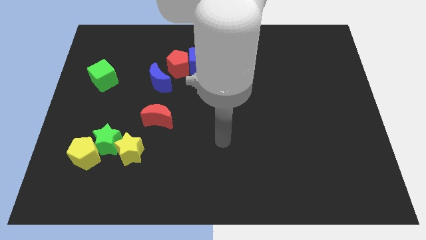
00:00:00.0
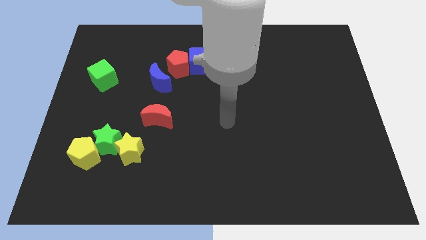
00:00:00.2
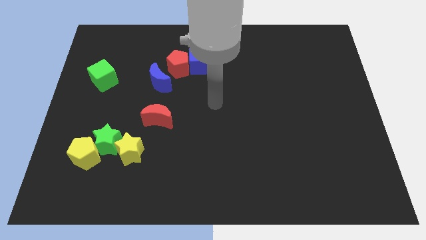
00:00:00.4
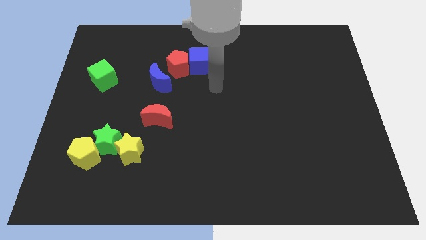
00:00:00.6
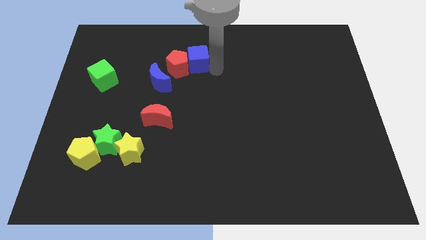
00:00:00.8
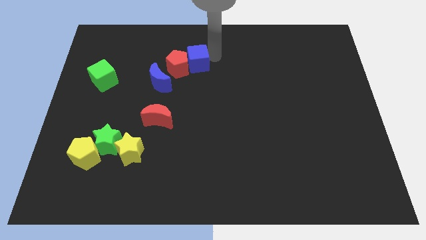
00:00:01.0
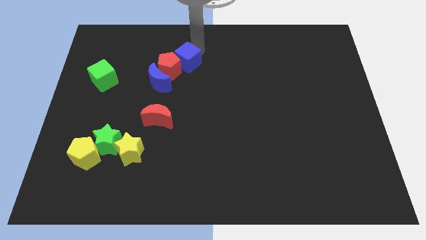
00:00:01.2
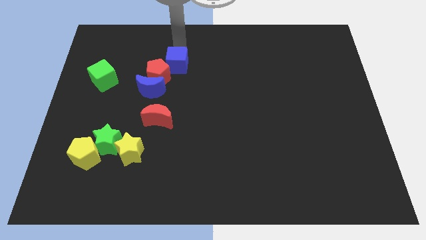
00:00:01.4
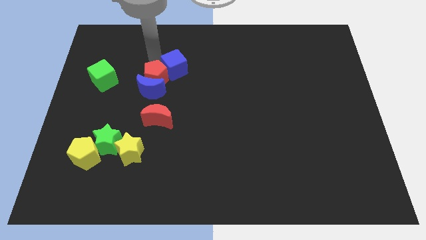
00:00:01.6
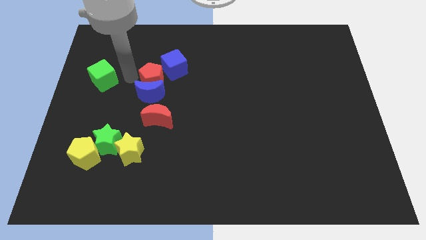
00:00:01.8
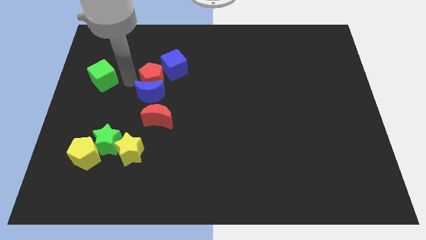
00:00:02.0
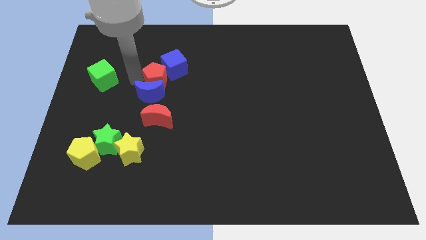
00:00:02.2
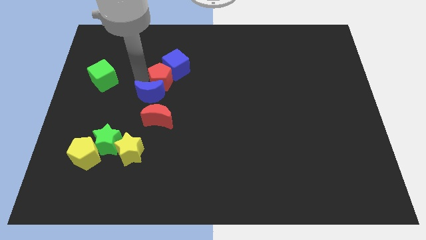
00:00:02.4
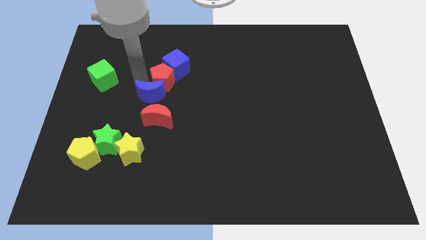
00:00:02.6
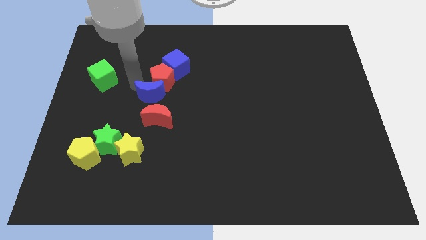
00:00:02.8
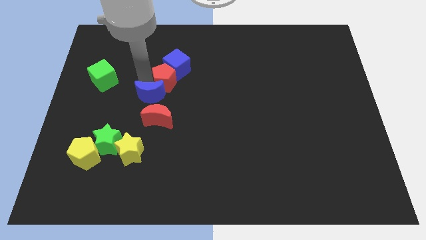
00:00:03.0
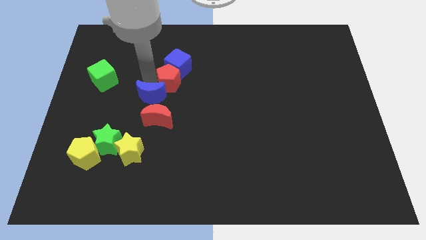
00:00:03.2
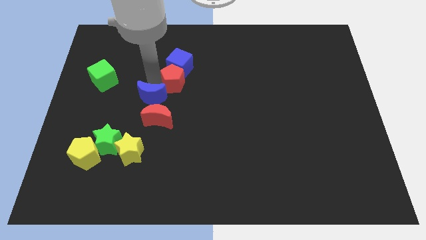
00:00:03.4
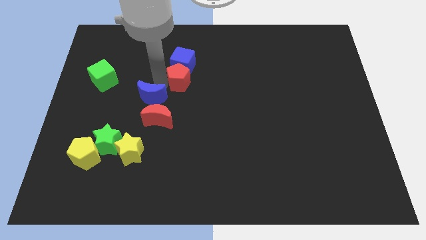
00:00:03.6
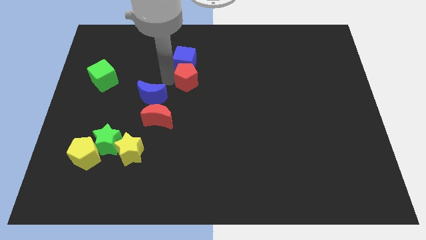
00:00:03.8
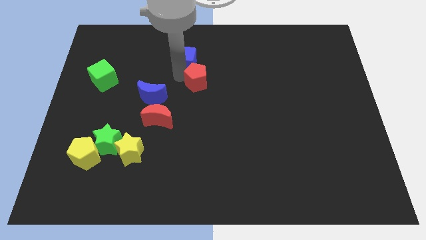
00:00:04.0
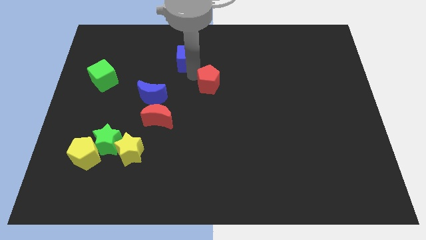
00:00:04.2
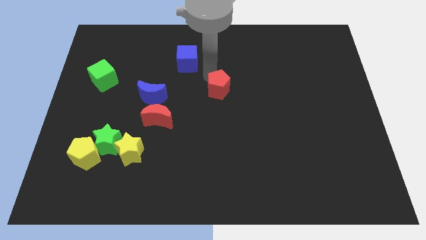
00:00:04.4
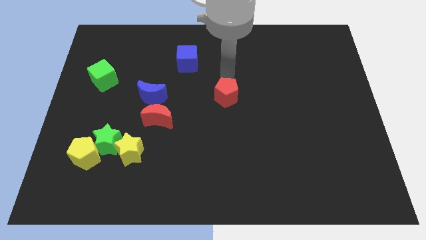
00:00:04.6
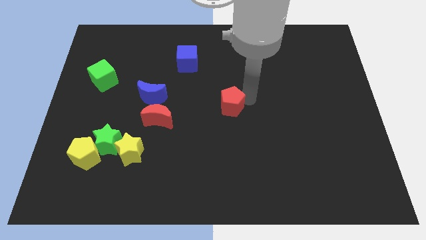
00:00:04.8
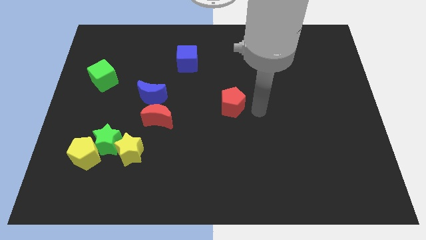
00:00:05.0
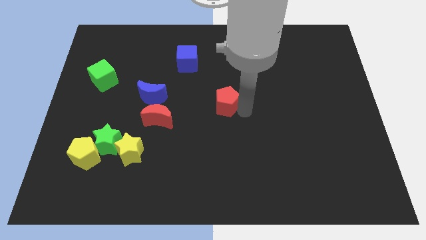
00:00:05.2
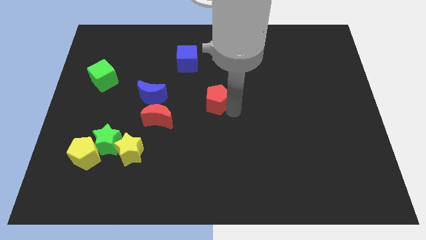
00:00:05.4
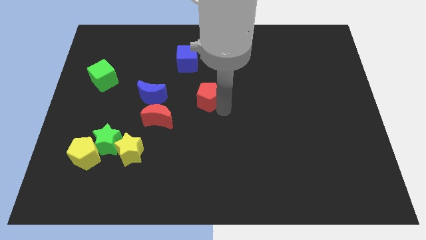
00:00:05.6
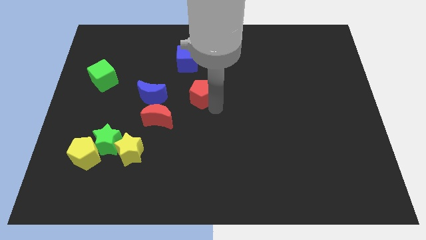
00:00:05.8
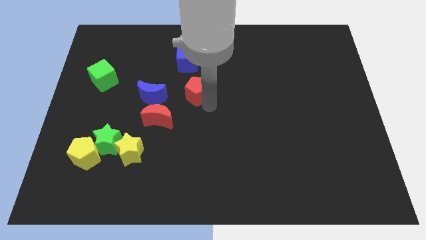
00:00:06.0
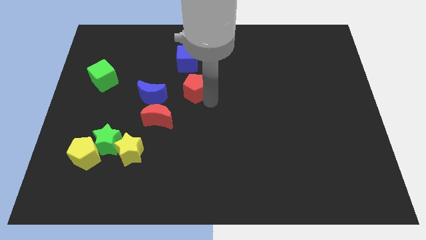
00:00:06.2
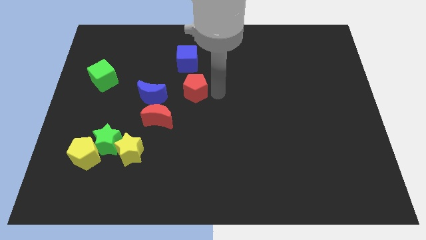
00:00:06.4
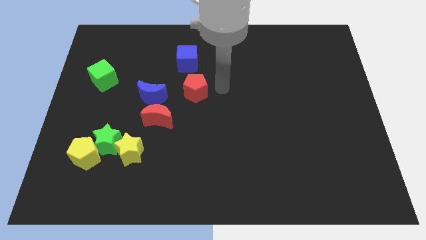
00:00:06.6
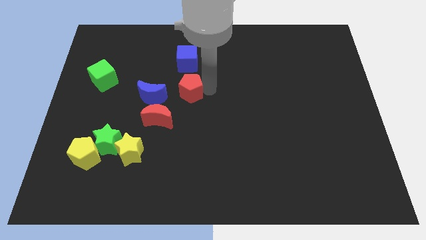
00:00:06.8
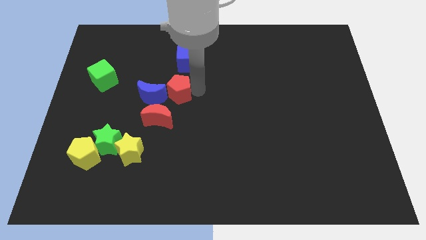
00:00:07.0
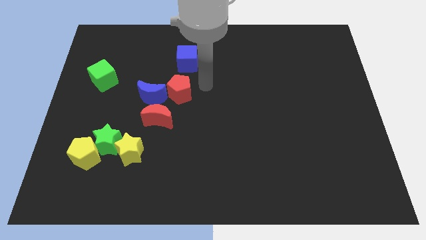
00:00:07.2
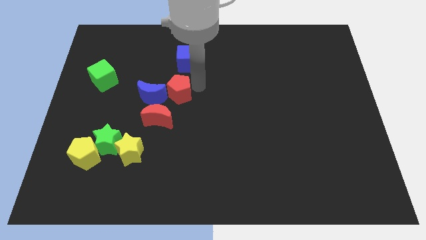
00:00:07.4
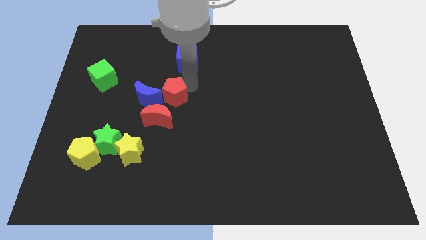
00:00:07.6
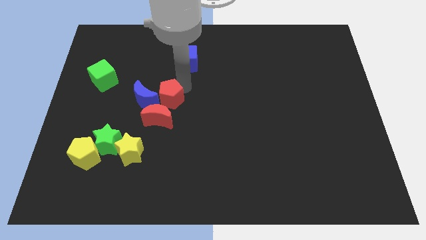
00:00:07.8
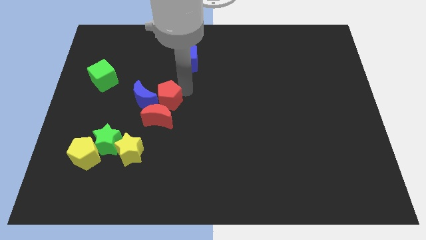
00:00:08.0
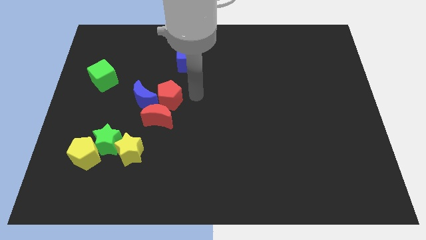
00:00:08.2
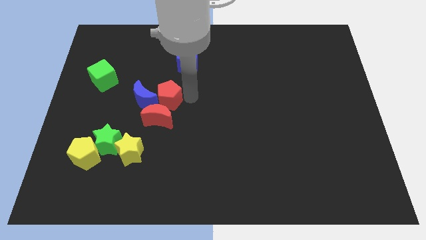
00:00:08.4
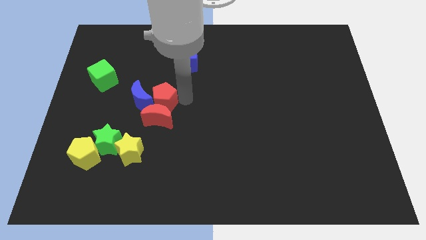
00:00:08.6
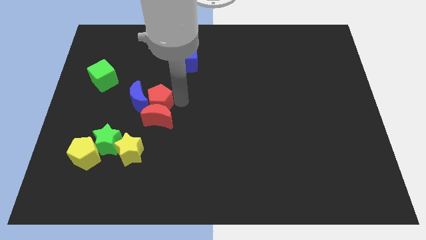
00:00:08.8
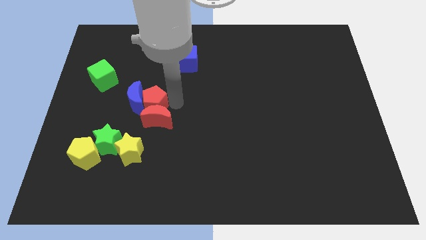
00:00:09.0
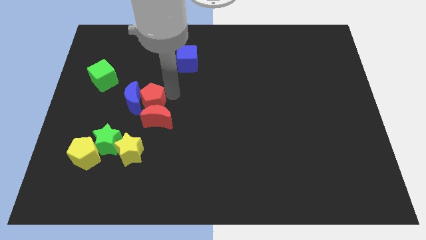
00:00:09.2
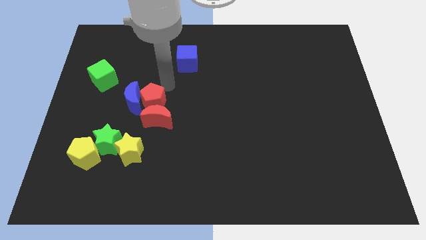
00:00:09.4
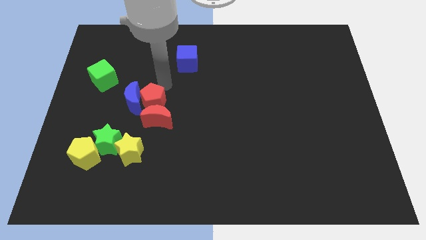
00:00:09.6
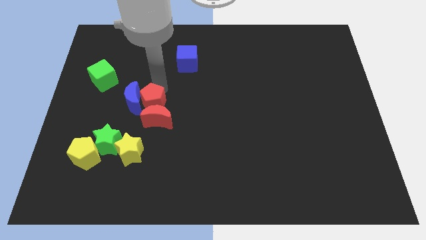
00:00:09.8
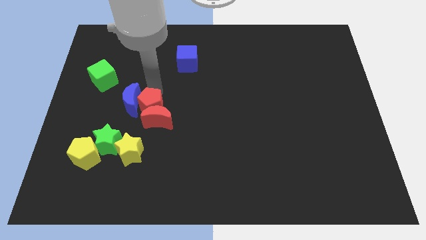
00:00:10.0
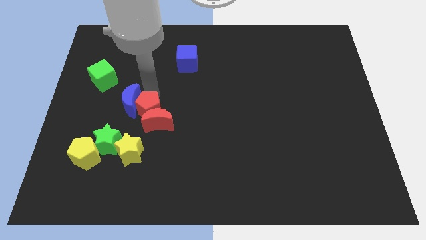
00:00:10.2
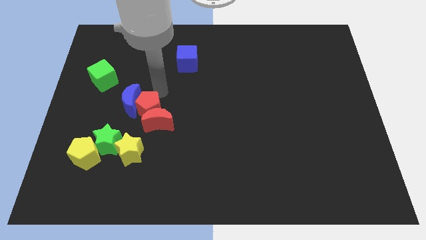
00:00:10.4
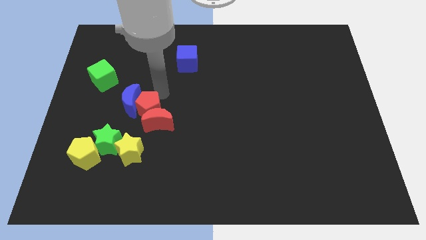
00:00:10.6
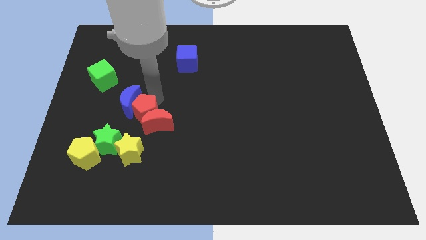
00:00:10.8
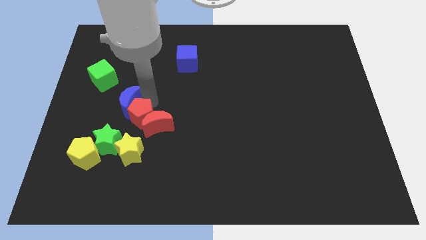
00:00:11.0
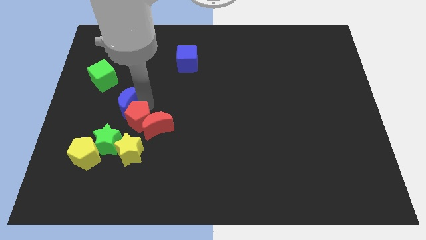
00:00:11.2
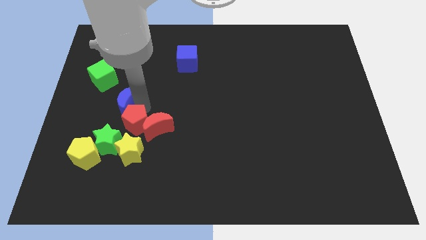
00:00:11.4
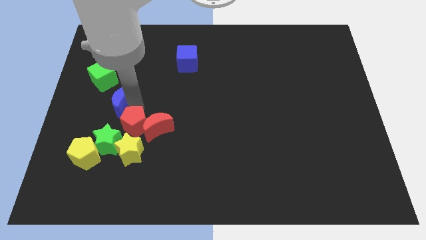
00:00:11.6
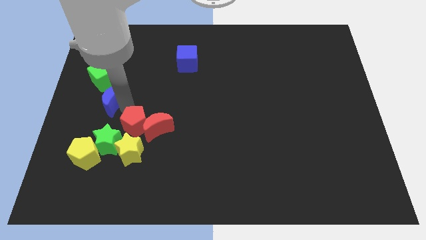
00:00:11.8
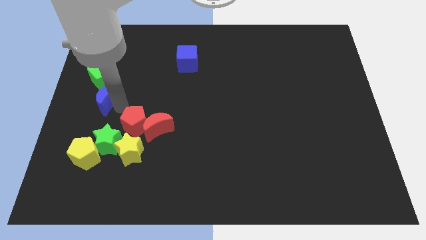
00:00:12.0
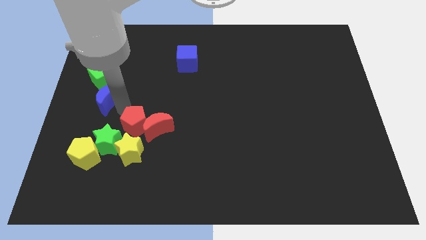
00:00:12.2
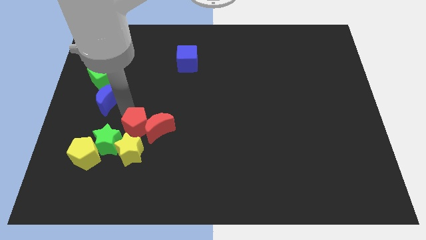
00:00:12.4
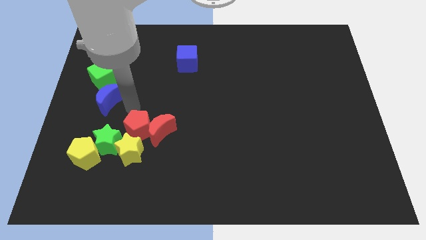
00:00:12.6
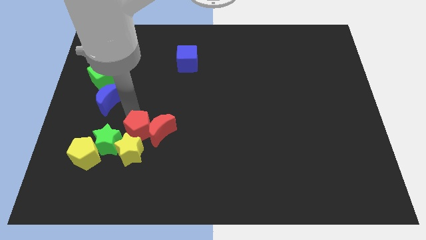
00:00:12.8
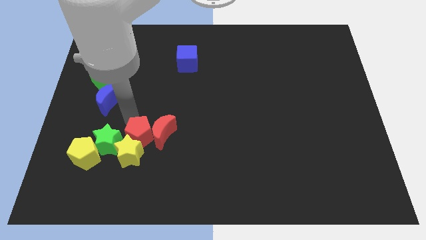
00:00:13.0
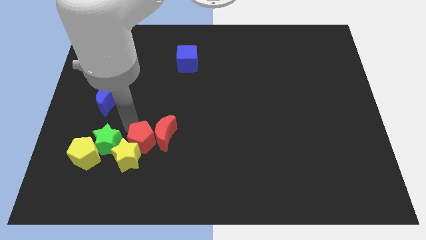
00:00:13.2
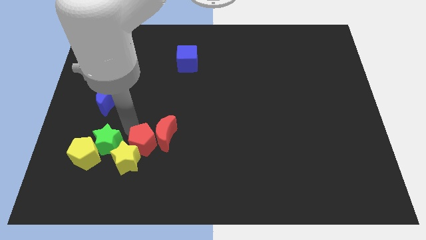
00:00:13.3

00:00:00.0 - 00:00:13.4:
move the red pentagon to the bottom right of the green star
